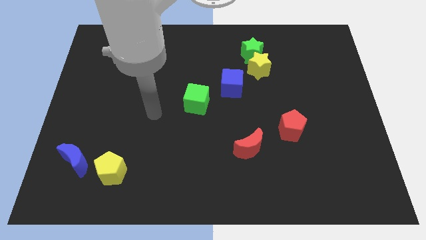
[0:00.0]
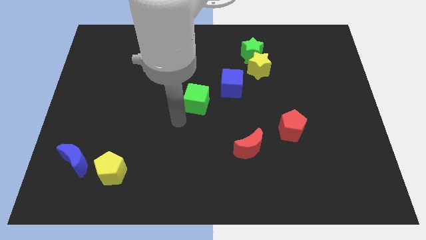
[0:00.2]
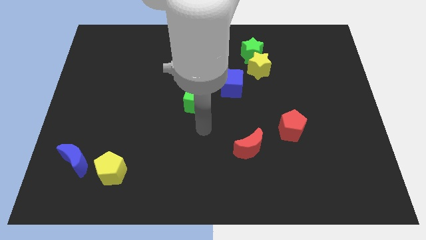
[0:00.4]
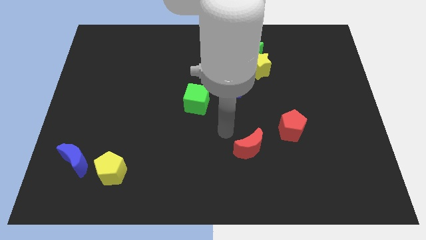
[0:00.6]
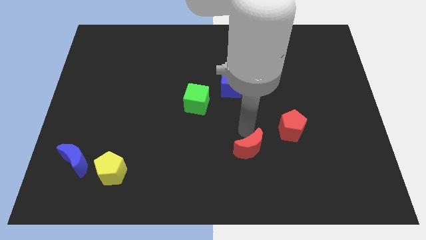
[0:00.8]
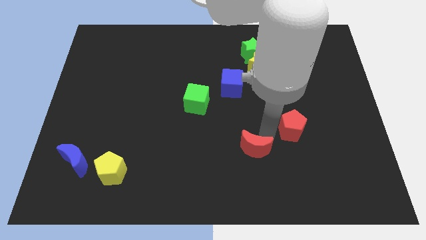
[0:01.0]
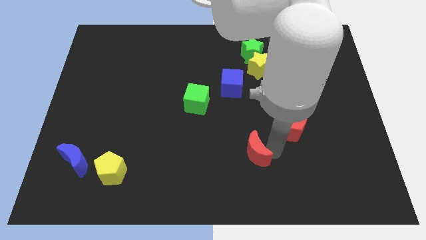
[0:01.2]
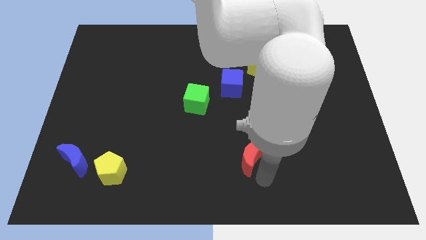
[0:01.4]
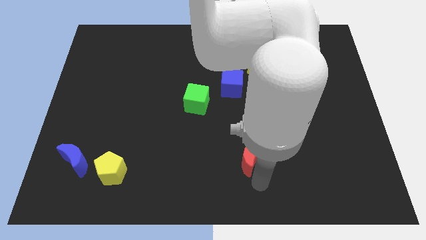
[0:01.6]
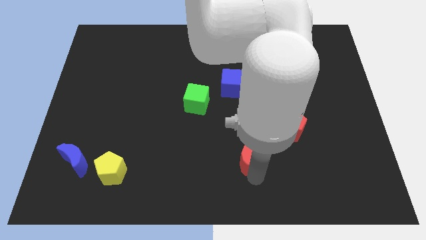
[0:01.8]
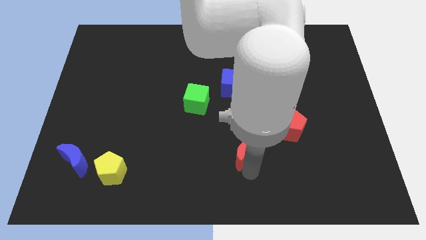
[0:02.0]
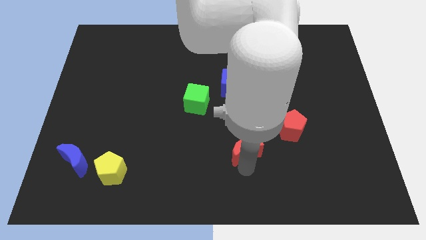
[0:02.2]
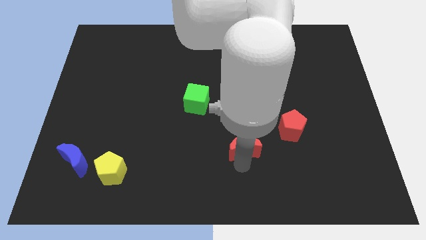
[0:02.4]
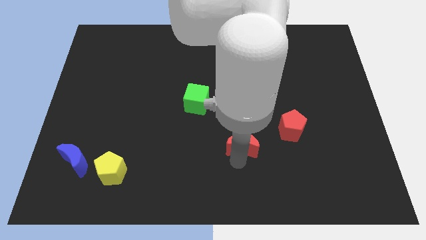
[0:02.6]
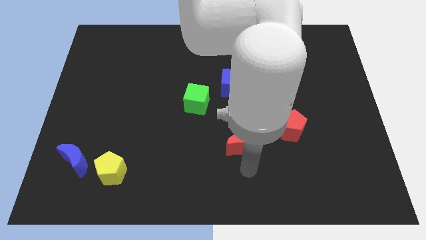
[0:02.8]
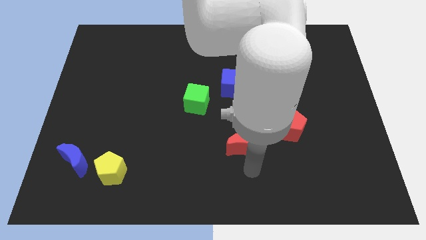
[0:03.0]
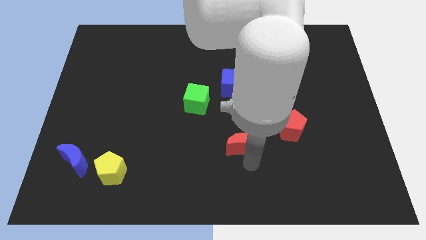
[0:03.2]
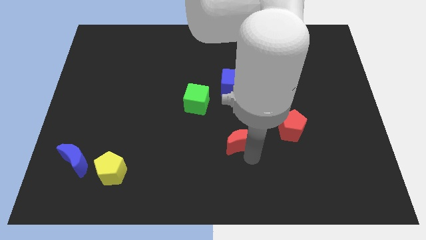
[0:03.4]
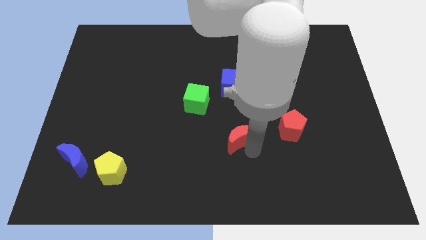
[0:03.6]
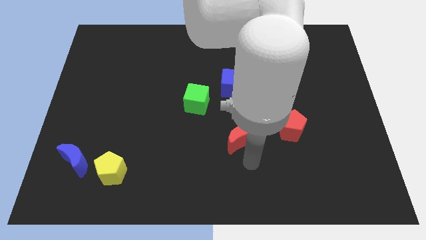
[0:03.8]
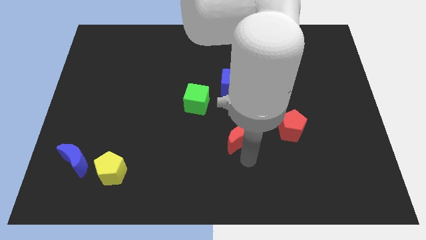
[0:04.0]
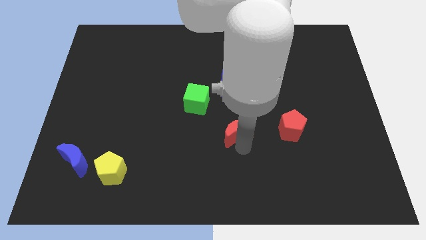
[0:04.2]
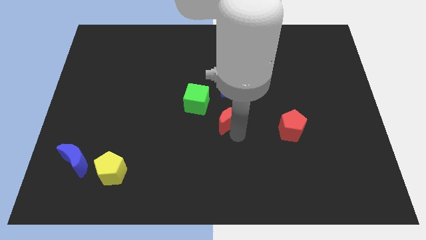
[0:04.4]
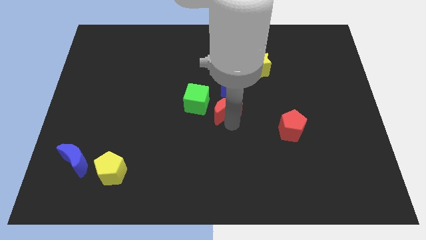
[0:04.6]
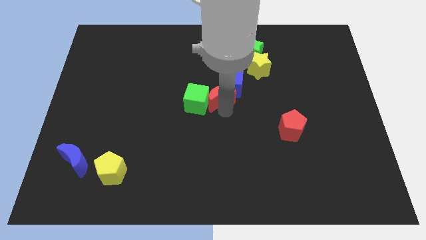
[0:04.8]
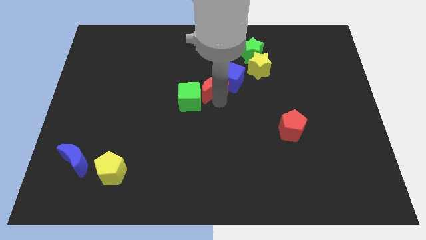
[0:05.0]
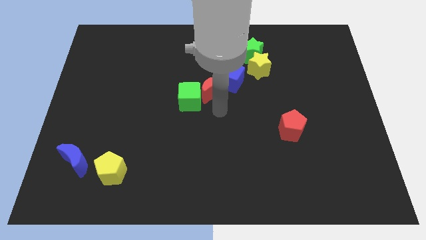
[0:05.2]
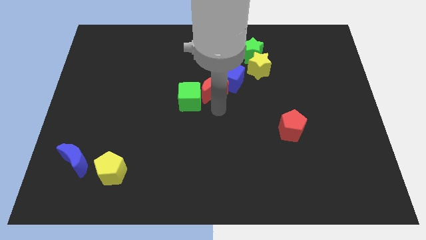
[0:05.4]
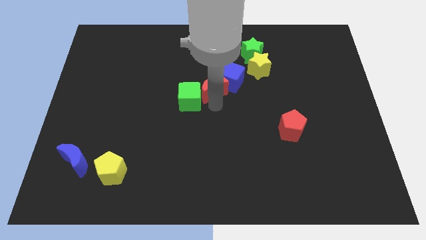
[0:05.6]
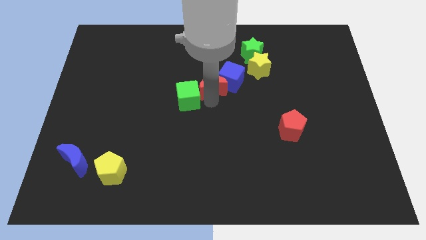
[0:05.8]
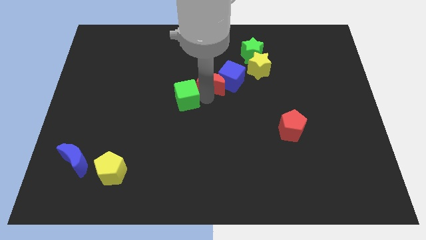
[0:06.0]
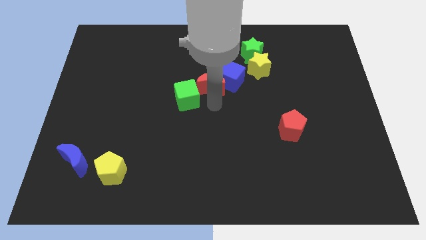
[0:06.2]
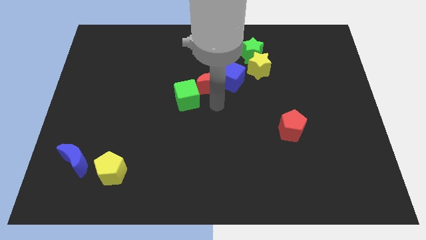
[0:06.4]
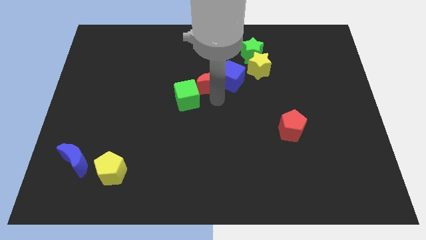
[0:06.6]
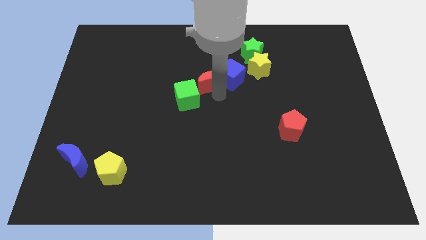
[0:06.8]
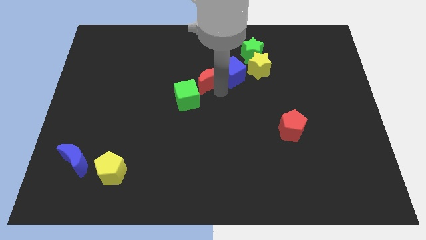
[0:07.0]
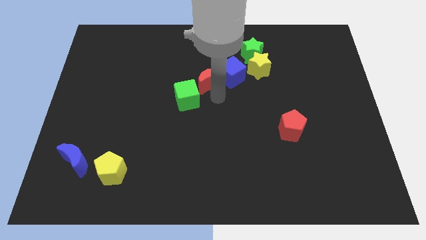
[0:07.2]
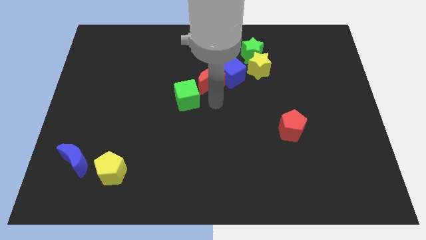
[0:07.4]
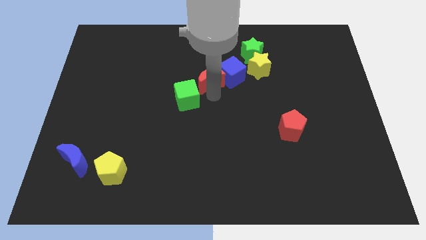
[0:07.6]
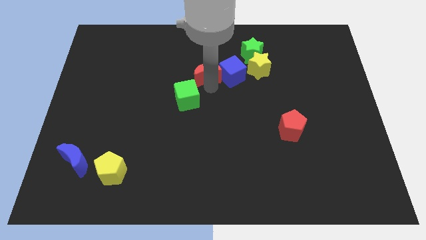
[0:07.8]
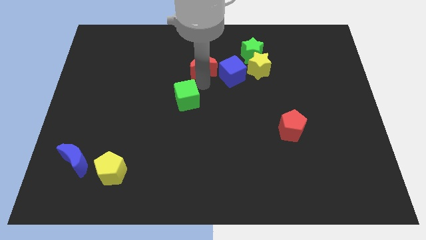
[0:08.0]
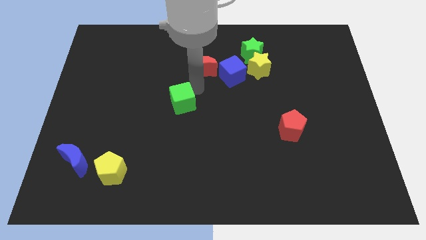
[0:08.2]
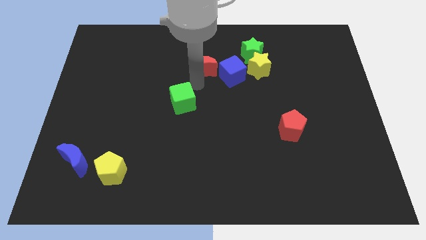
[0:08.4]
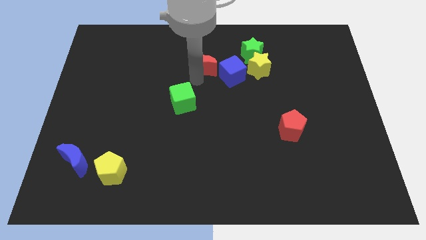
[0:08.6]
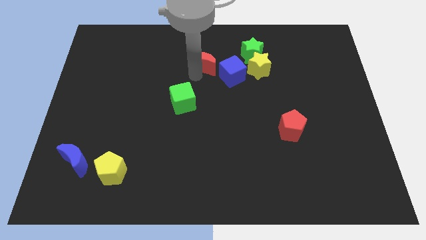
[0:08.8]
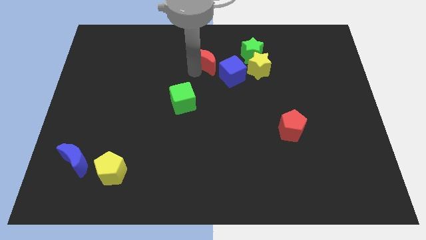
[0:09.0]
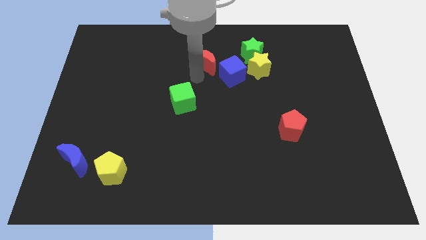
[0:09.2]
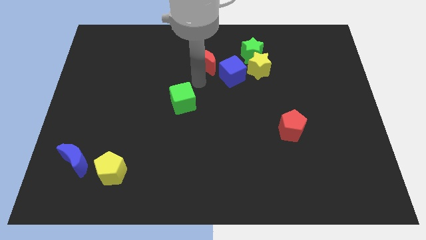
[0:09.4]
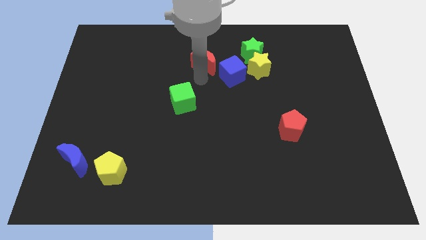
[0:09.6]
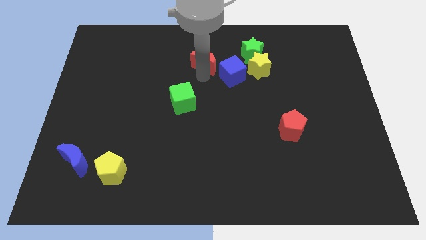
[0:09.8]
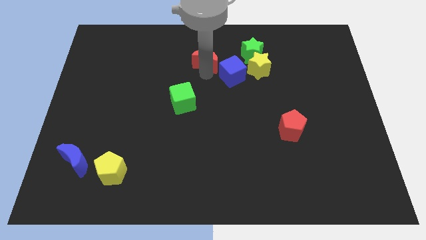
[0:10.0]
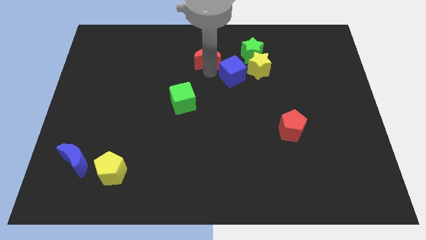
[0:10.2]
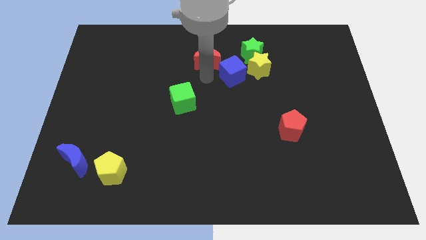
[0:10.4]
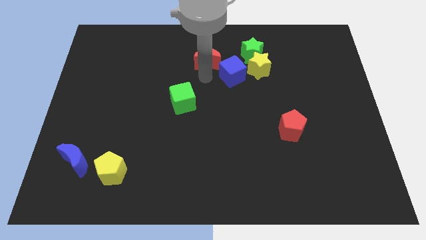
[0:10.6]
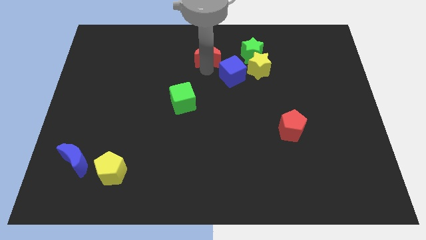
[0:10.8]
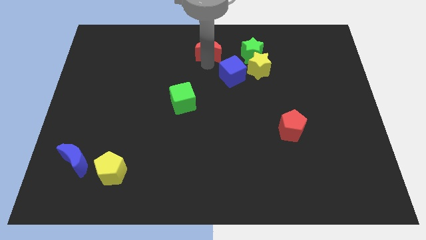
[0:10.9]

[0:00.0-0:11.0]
move the red moon to the towards your base
